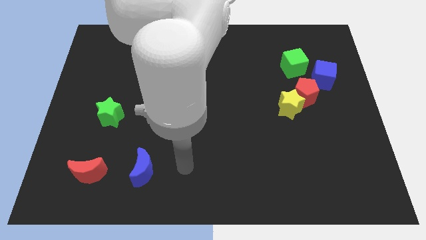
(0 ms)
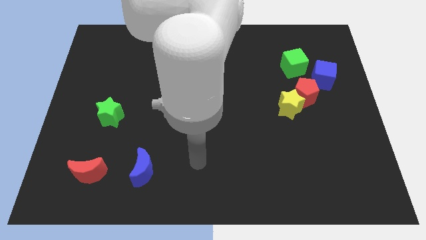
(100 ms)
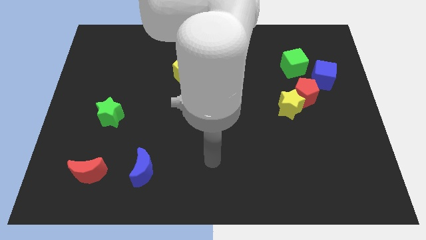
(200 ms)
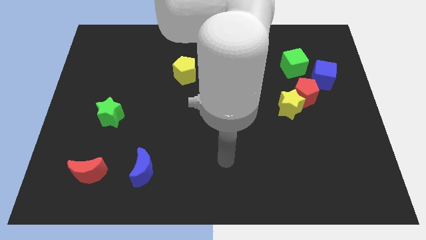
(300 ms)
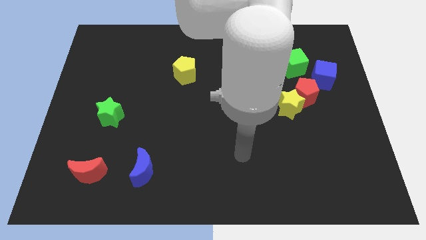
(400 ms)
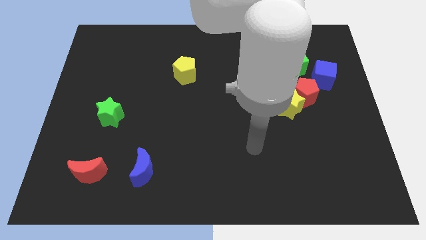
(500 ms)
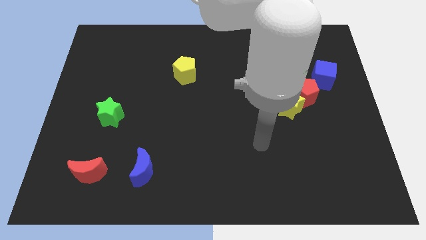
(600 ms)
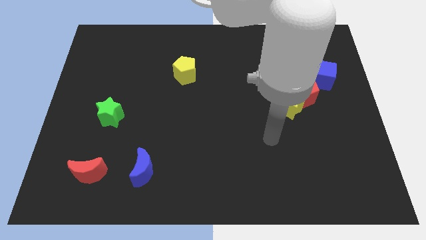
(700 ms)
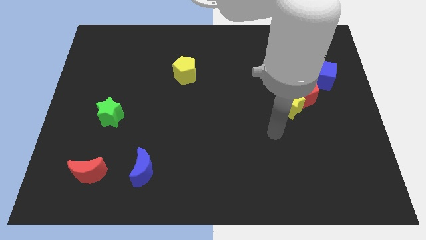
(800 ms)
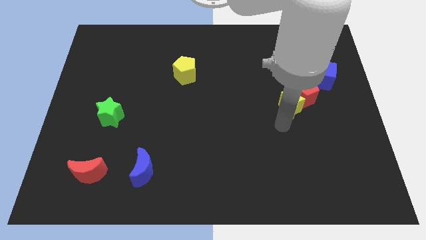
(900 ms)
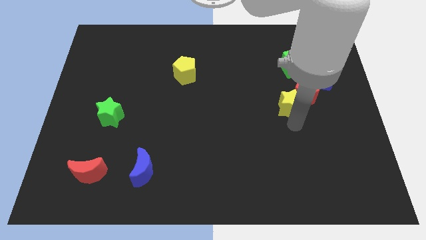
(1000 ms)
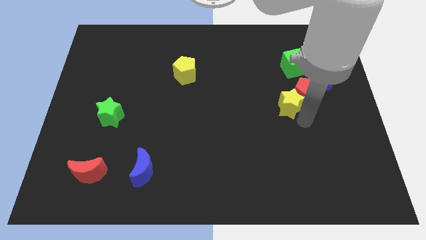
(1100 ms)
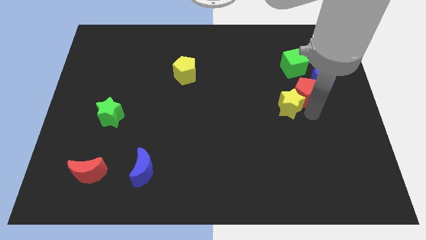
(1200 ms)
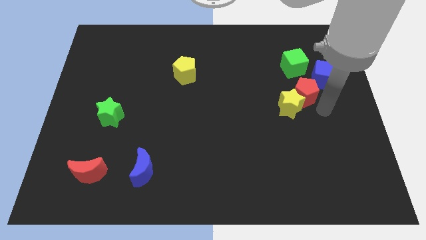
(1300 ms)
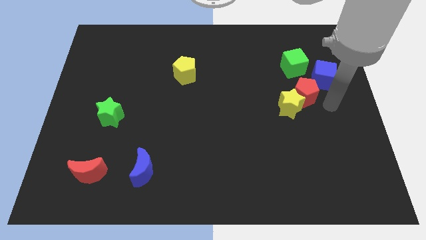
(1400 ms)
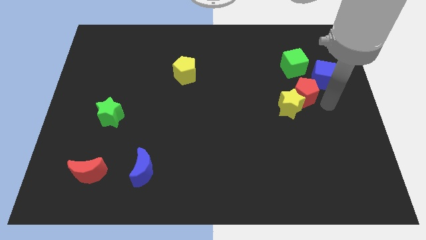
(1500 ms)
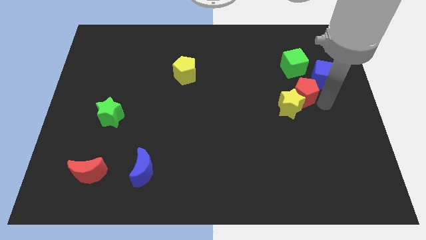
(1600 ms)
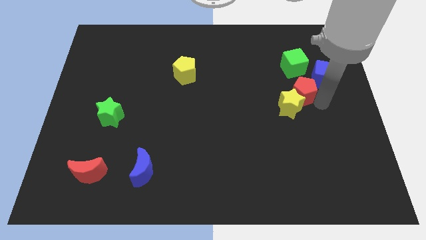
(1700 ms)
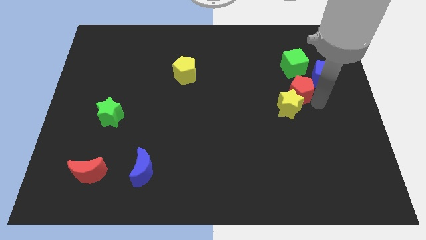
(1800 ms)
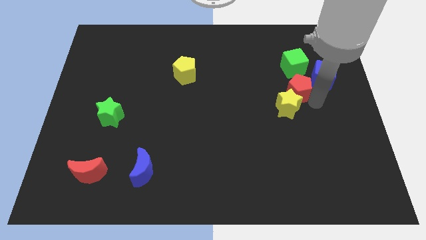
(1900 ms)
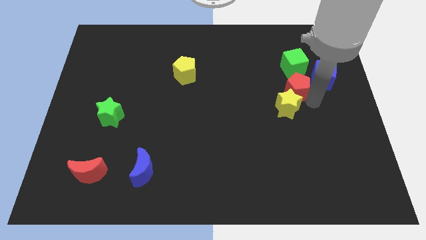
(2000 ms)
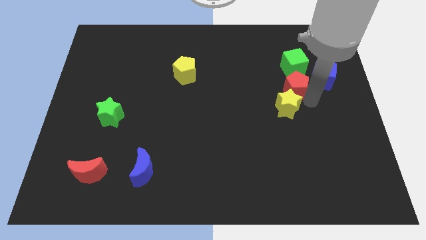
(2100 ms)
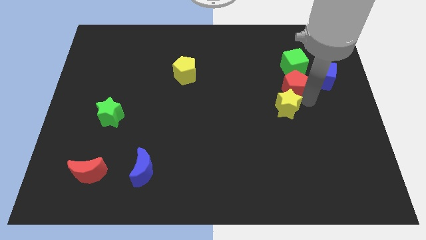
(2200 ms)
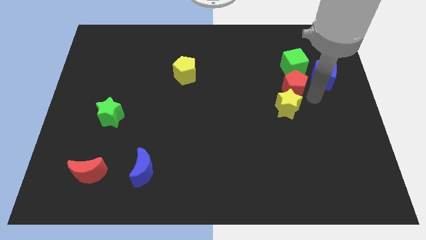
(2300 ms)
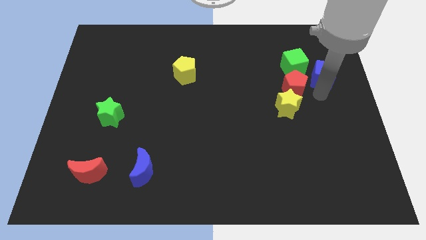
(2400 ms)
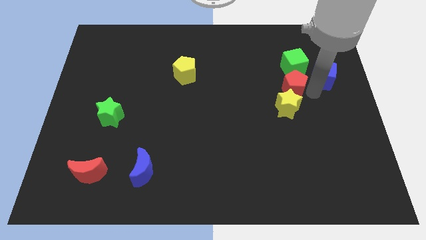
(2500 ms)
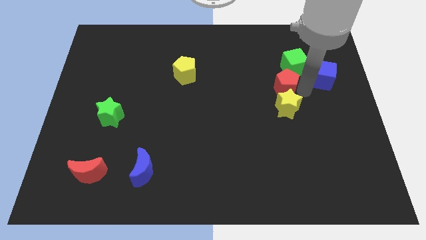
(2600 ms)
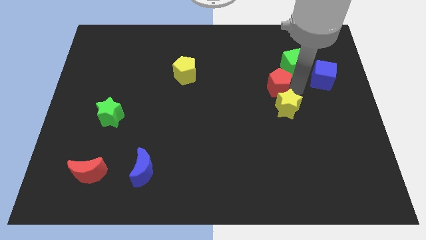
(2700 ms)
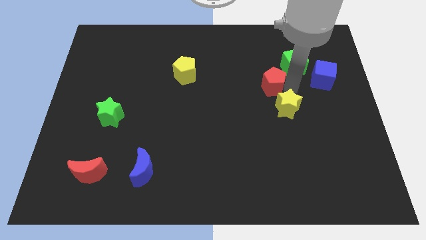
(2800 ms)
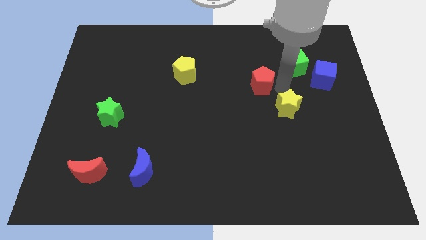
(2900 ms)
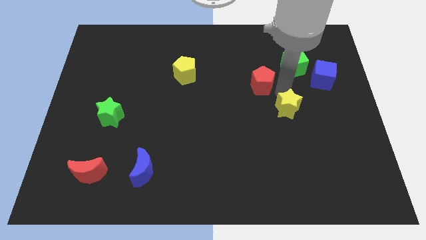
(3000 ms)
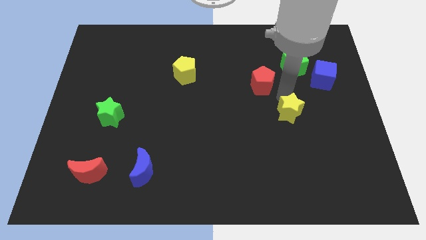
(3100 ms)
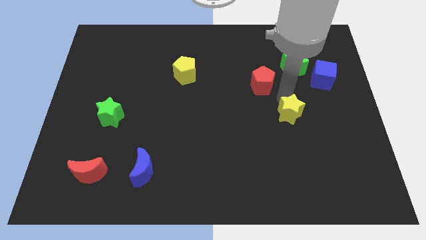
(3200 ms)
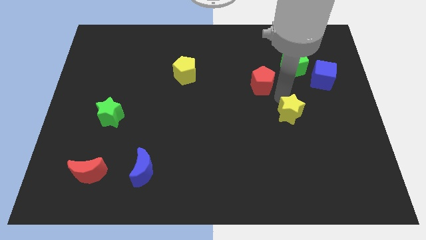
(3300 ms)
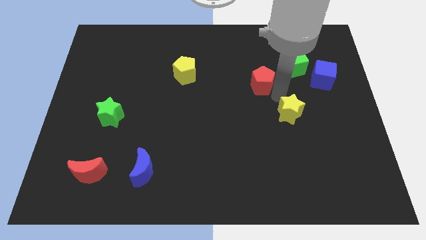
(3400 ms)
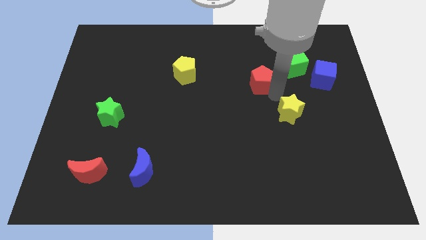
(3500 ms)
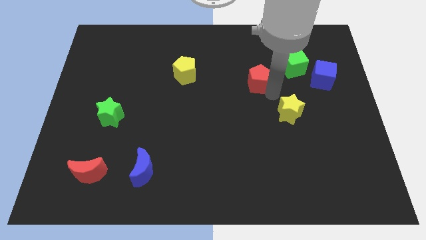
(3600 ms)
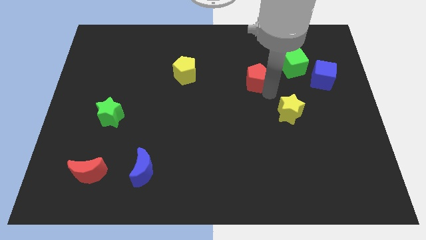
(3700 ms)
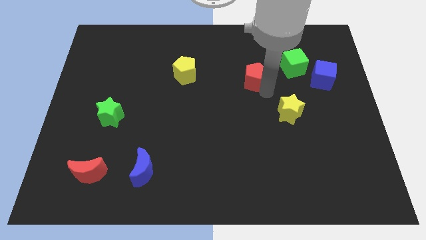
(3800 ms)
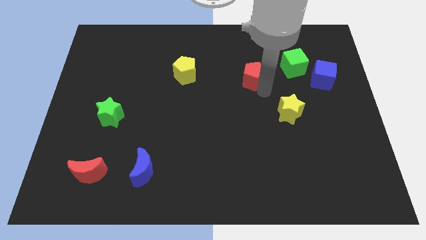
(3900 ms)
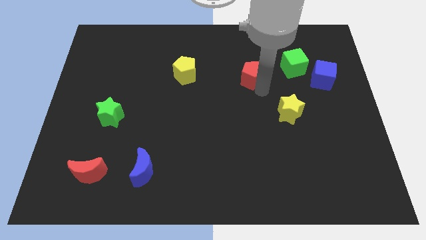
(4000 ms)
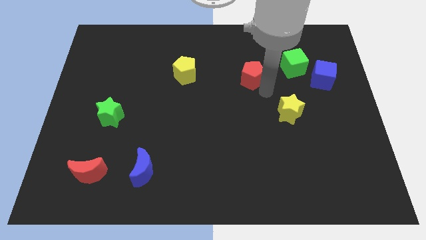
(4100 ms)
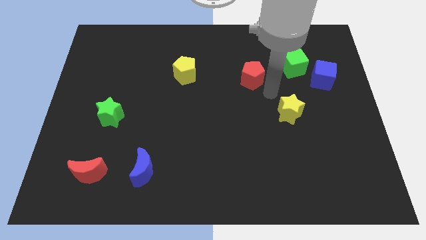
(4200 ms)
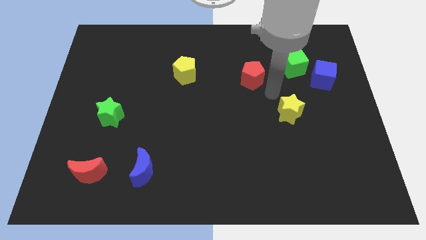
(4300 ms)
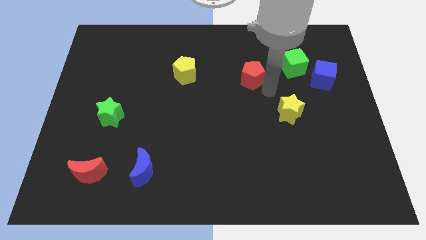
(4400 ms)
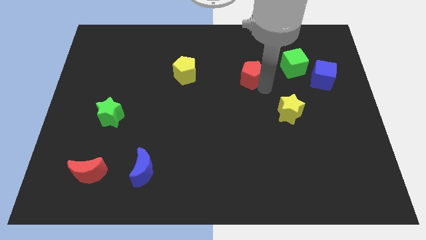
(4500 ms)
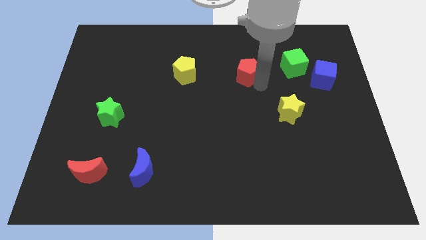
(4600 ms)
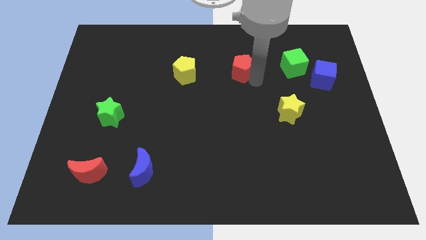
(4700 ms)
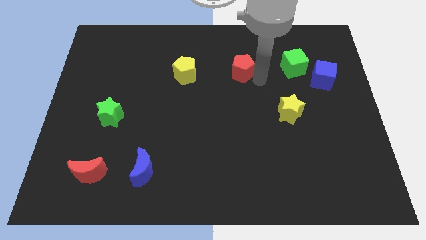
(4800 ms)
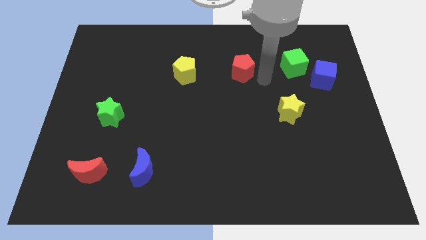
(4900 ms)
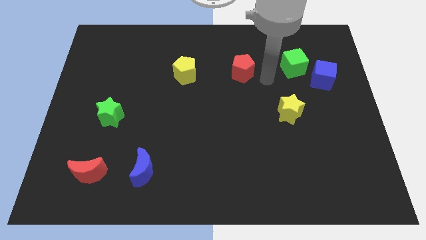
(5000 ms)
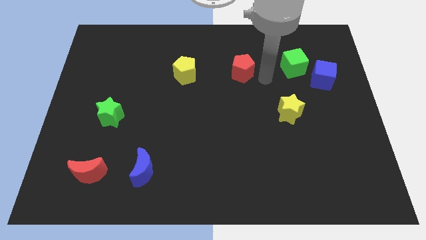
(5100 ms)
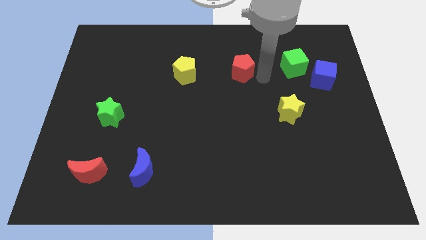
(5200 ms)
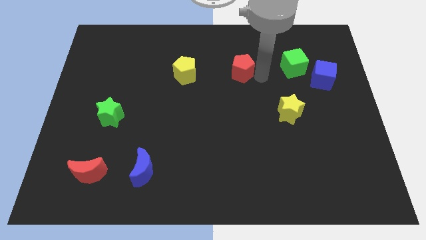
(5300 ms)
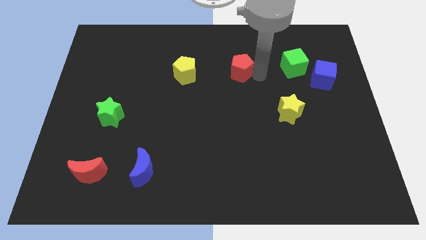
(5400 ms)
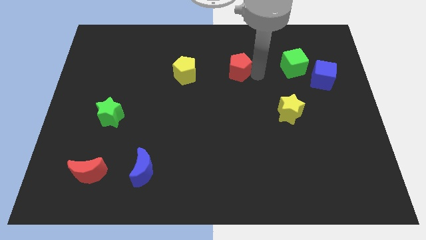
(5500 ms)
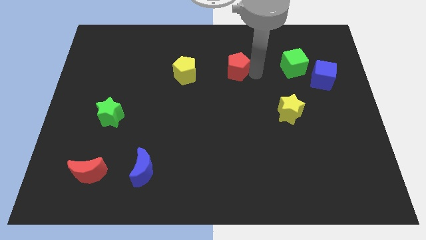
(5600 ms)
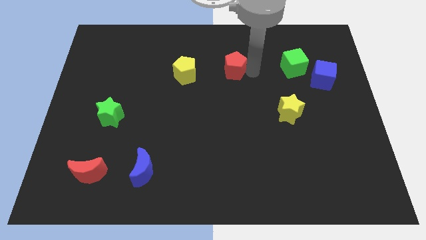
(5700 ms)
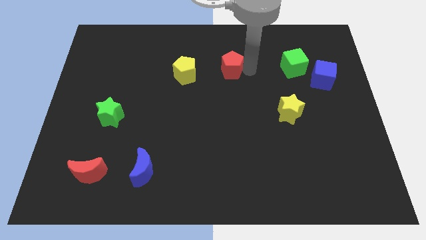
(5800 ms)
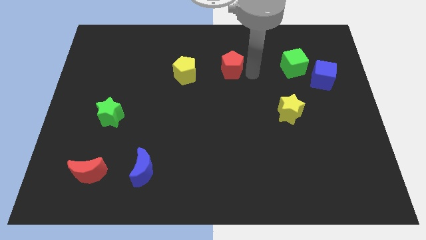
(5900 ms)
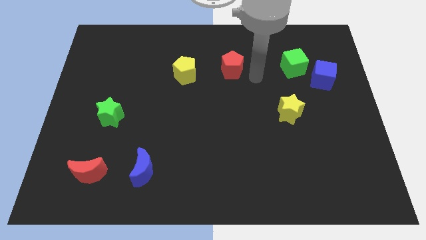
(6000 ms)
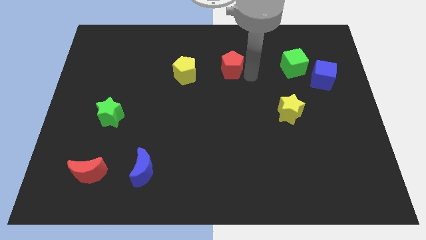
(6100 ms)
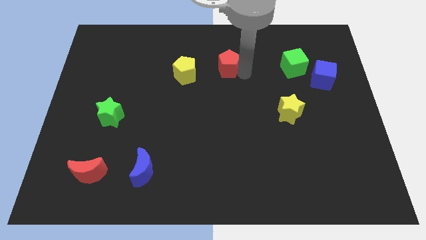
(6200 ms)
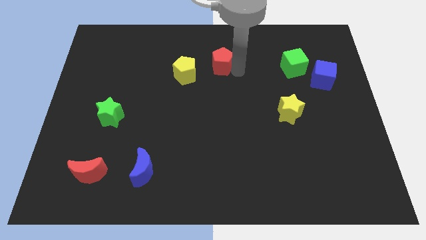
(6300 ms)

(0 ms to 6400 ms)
put the red pentagon to the top right side of the yellow pentagon

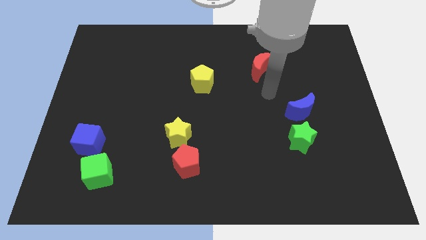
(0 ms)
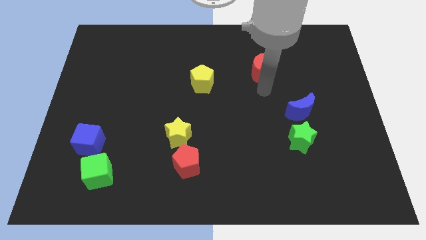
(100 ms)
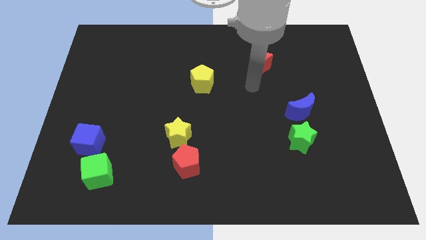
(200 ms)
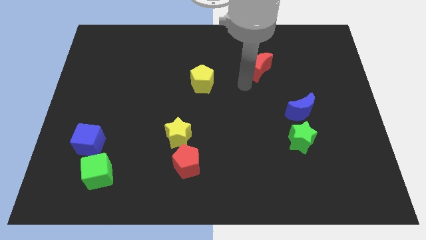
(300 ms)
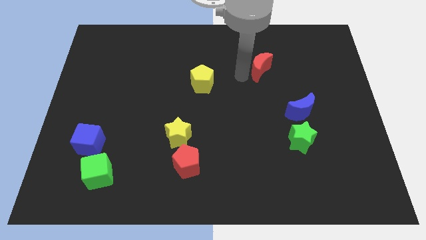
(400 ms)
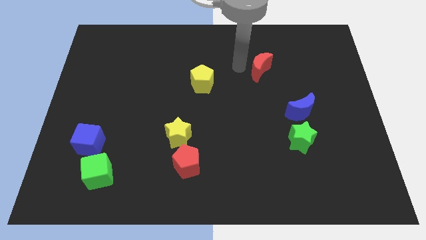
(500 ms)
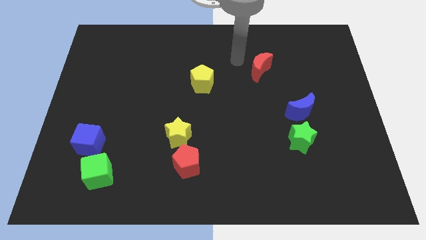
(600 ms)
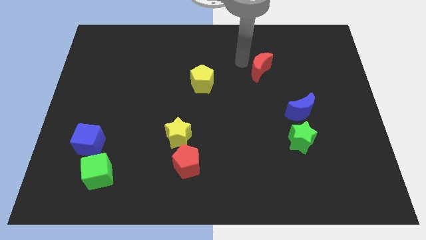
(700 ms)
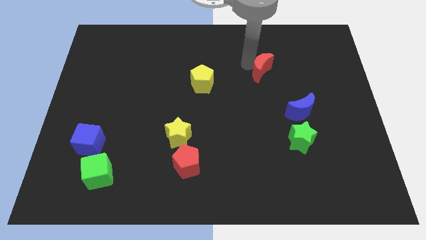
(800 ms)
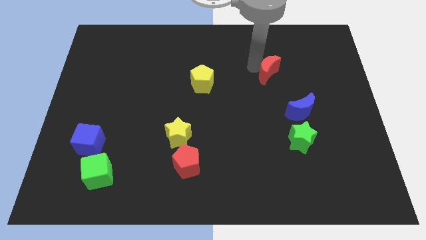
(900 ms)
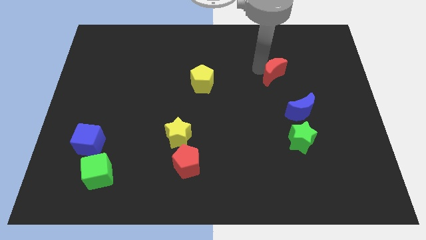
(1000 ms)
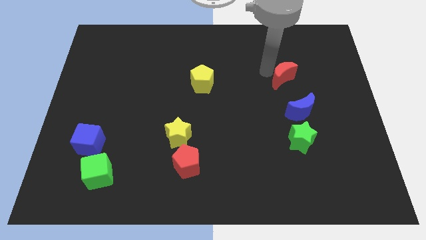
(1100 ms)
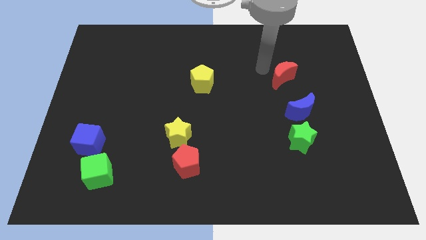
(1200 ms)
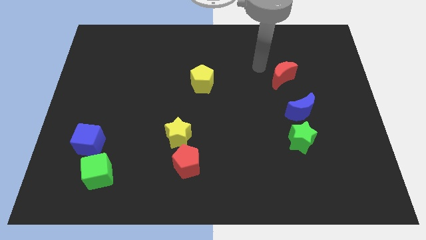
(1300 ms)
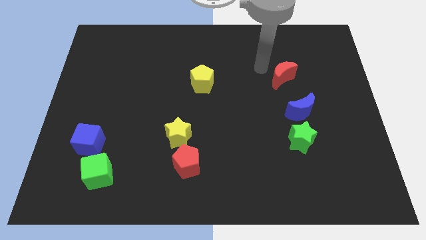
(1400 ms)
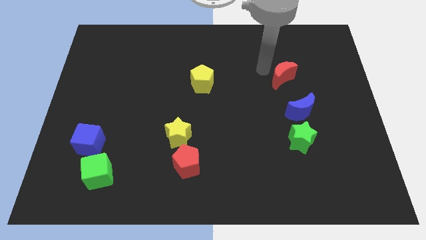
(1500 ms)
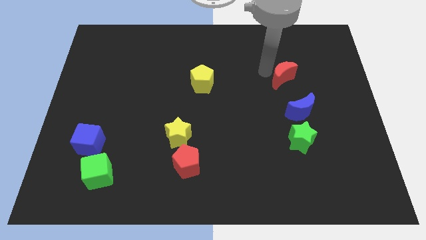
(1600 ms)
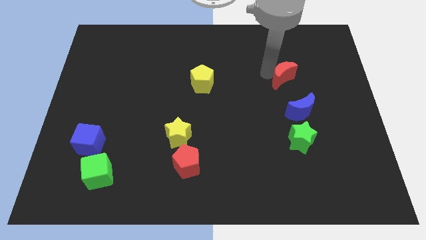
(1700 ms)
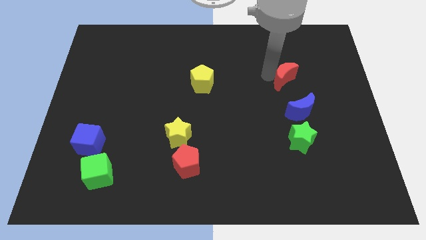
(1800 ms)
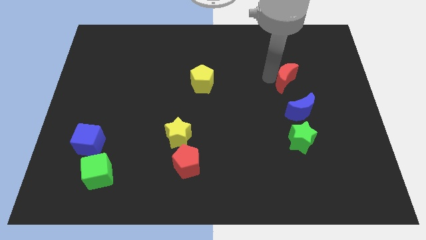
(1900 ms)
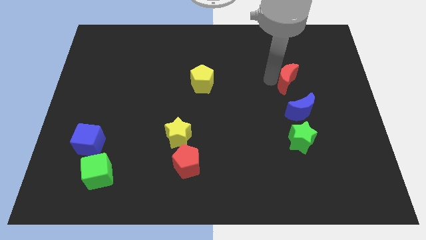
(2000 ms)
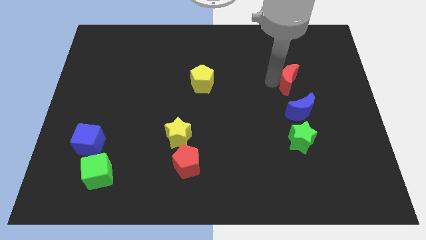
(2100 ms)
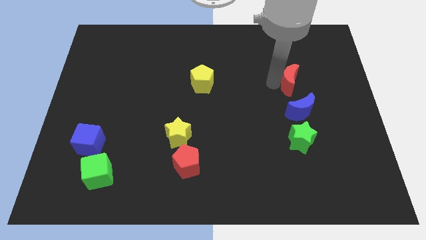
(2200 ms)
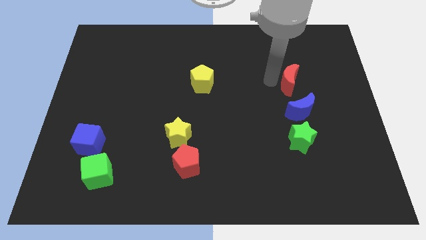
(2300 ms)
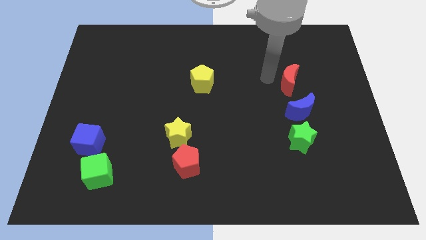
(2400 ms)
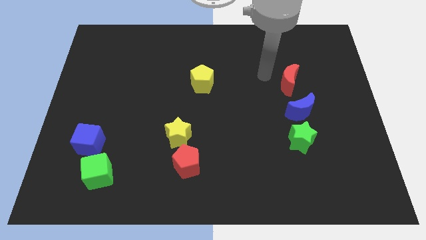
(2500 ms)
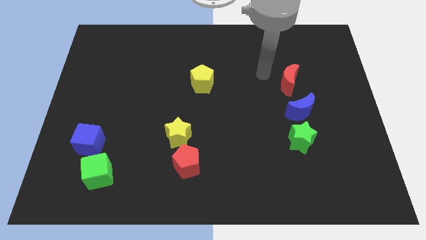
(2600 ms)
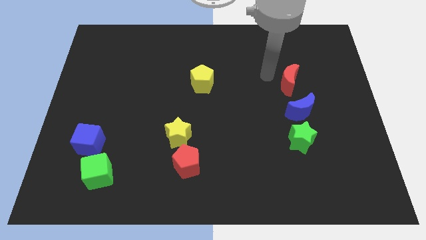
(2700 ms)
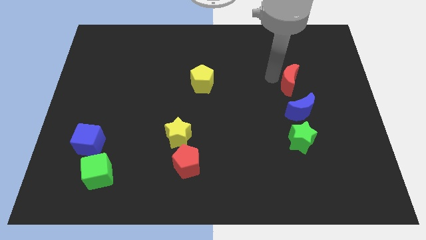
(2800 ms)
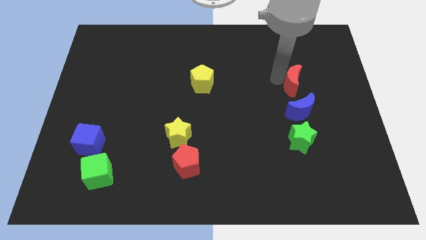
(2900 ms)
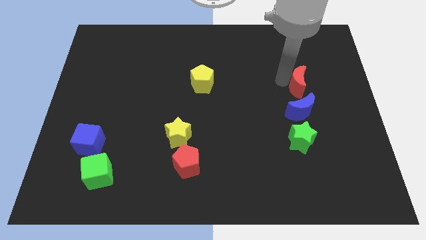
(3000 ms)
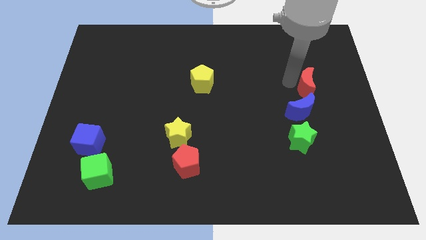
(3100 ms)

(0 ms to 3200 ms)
slide the red moon diagonally up and to the right of the blue moon
